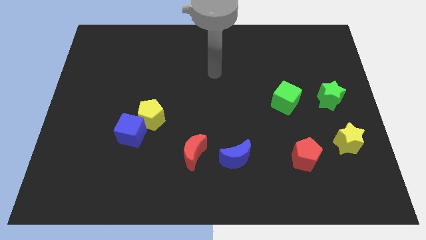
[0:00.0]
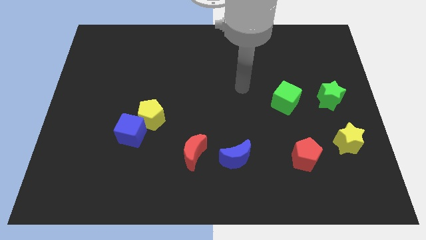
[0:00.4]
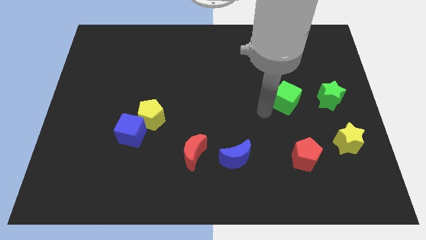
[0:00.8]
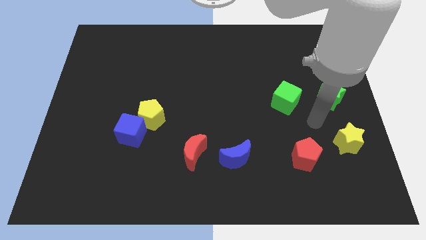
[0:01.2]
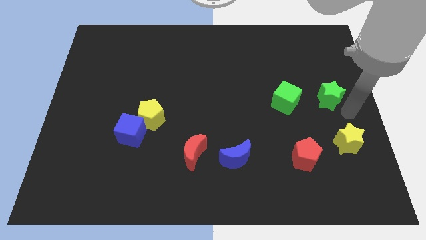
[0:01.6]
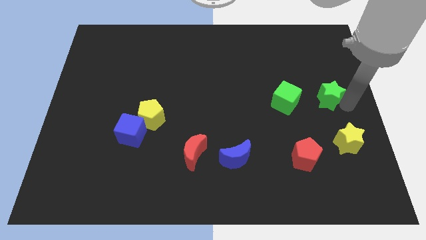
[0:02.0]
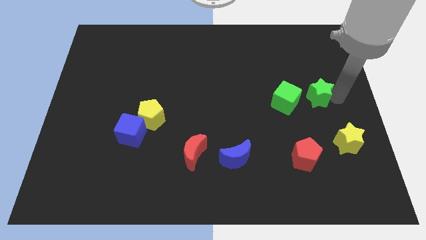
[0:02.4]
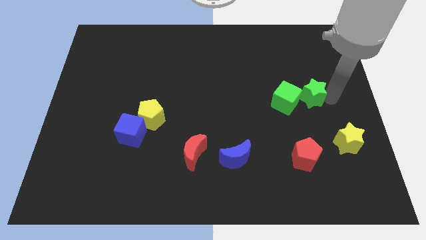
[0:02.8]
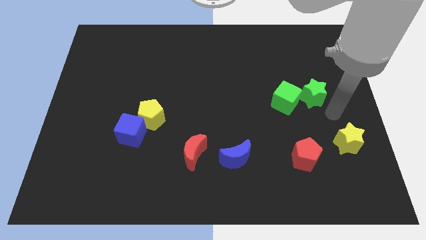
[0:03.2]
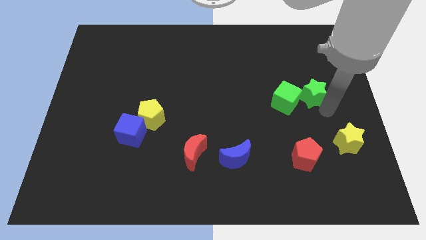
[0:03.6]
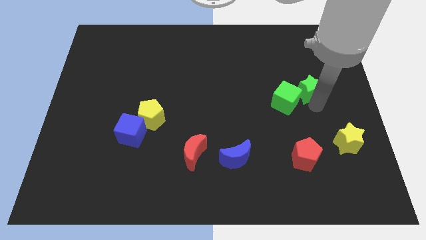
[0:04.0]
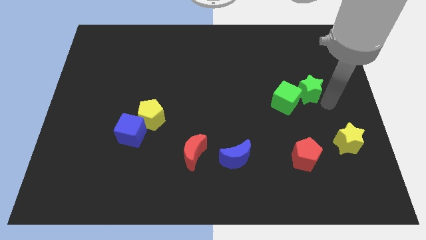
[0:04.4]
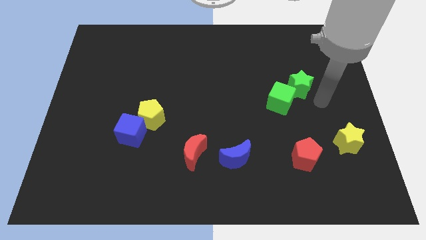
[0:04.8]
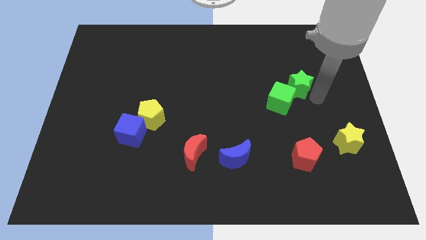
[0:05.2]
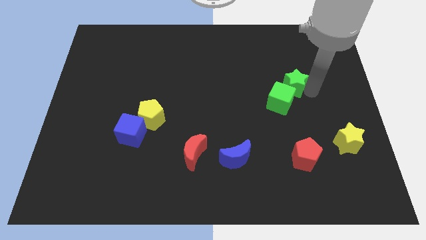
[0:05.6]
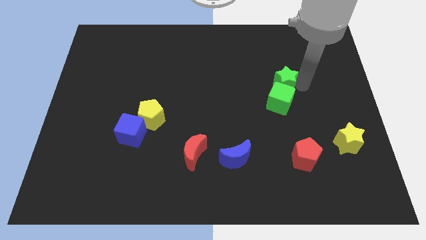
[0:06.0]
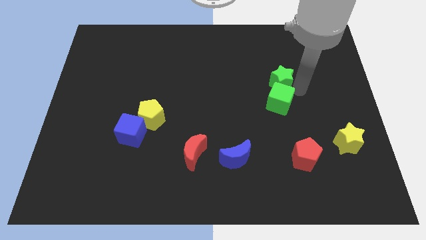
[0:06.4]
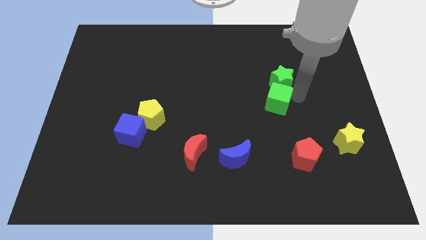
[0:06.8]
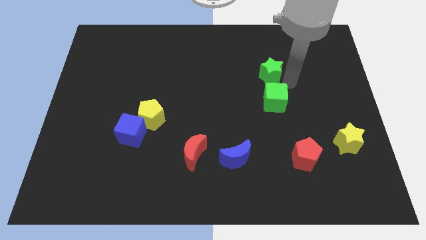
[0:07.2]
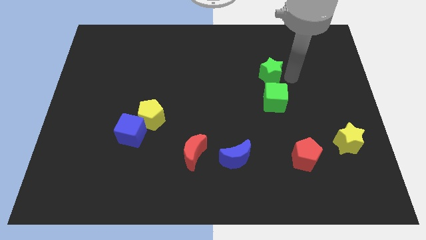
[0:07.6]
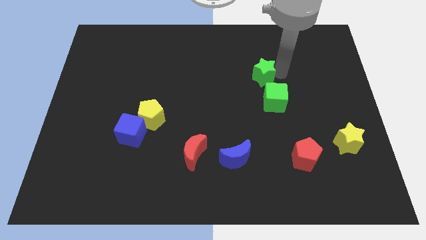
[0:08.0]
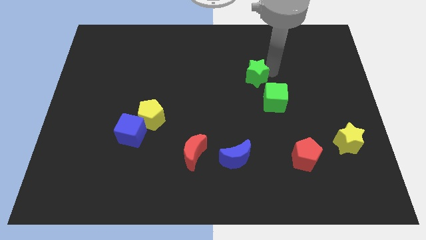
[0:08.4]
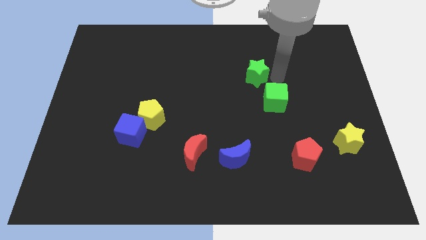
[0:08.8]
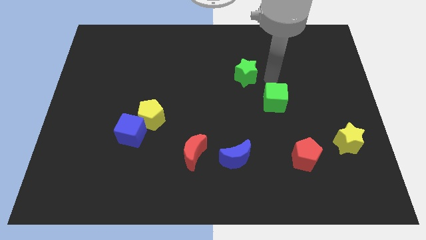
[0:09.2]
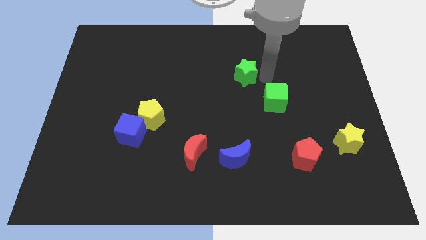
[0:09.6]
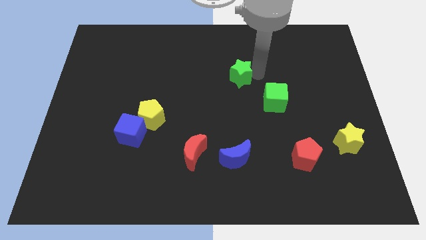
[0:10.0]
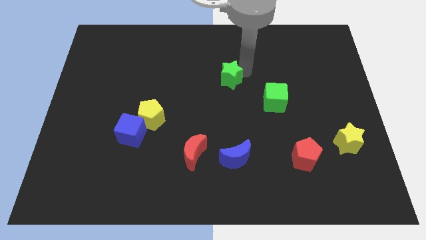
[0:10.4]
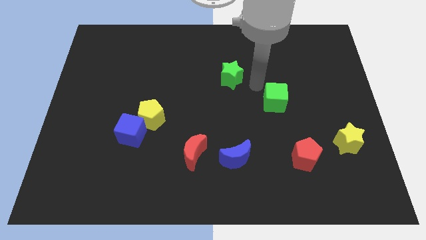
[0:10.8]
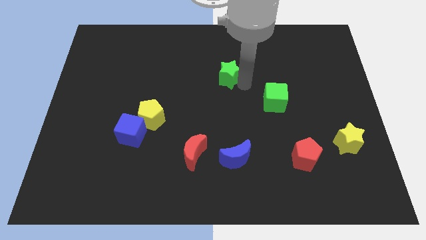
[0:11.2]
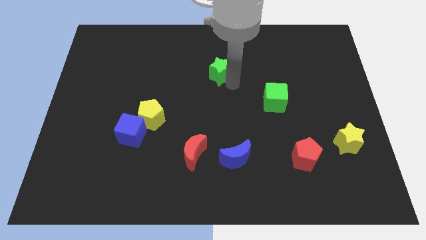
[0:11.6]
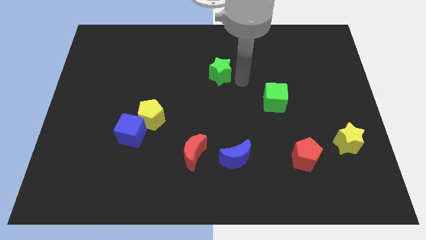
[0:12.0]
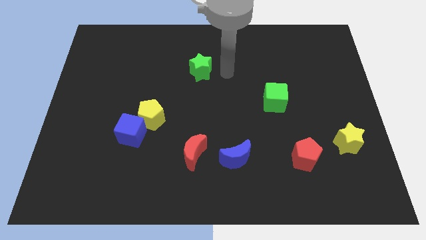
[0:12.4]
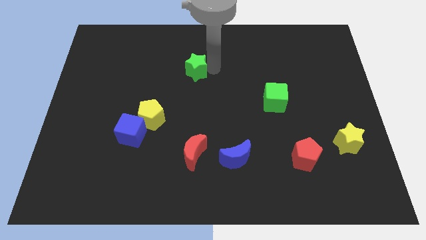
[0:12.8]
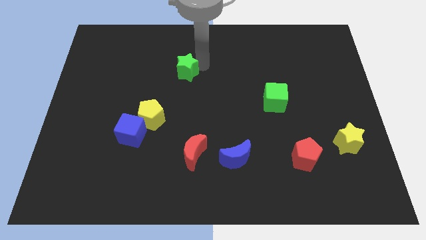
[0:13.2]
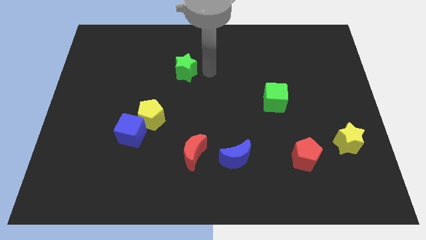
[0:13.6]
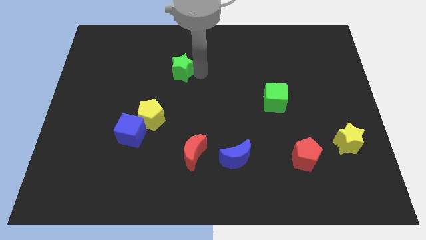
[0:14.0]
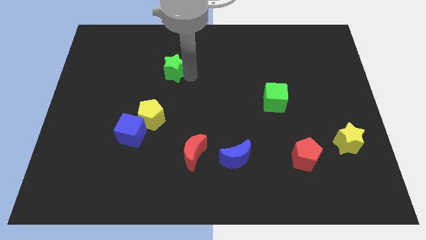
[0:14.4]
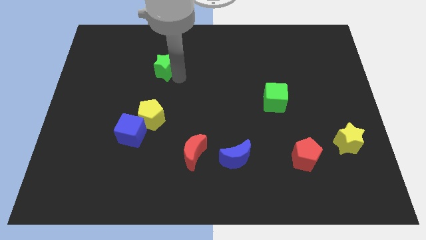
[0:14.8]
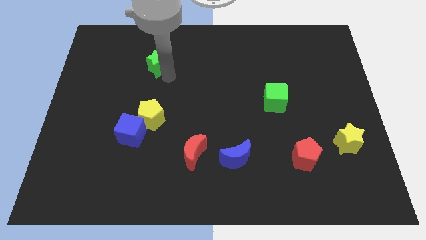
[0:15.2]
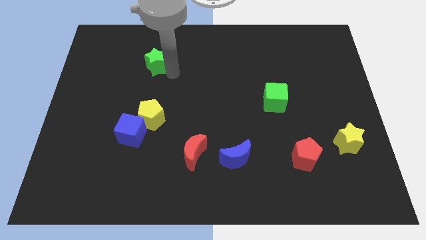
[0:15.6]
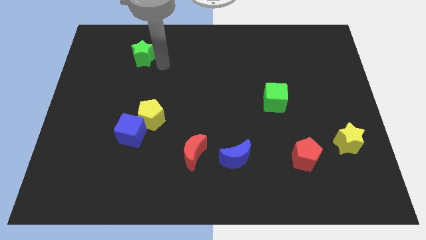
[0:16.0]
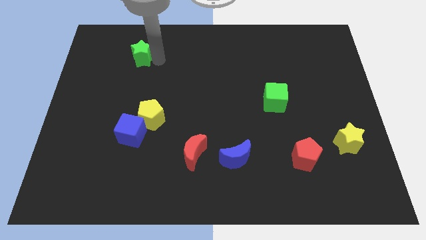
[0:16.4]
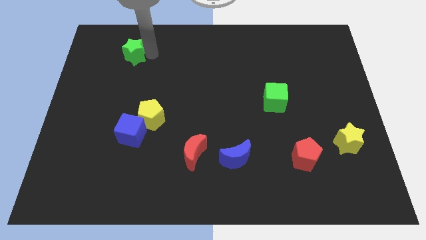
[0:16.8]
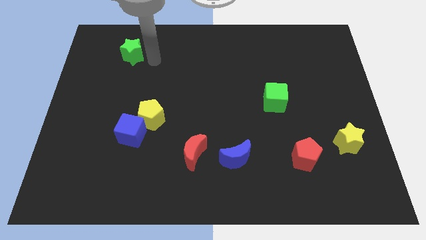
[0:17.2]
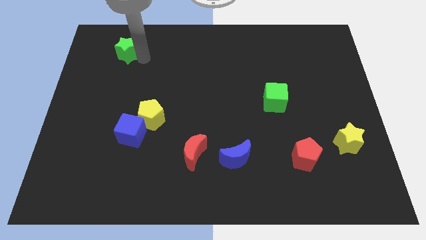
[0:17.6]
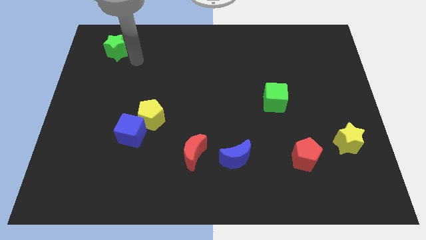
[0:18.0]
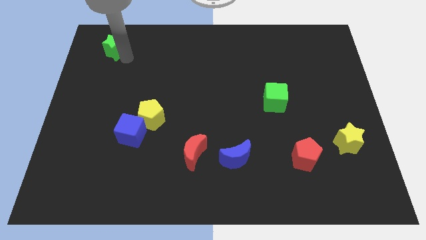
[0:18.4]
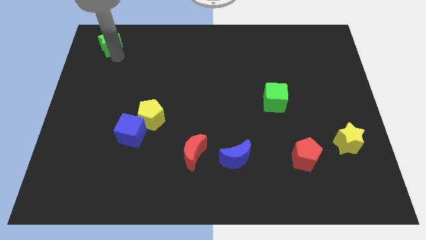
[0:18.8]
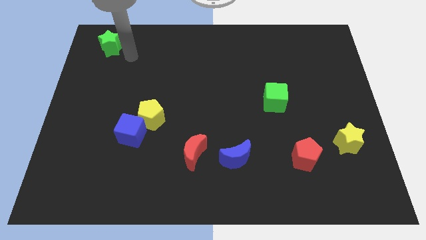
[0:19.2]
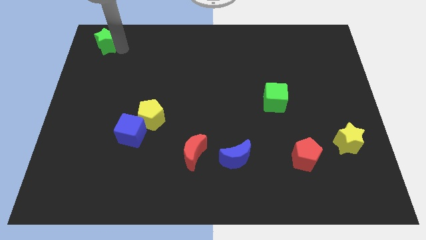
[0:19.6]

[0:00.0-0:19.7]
move the green star to the top left

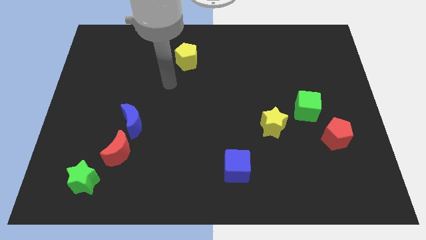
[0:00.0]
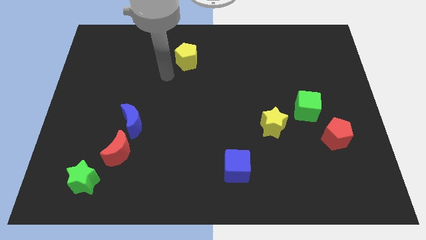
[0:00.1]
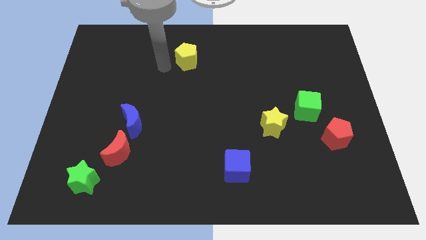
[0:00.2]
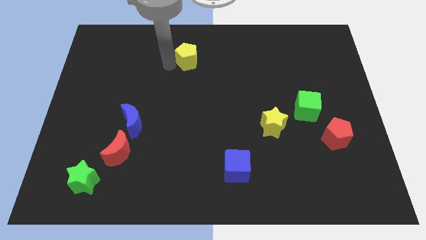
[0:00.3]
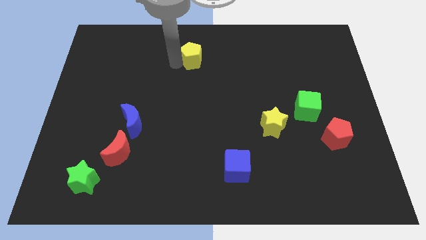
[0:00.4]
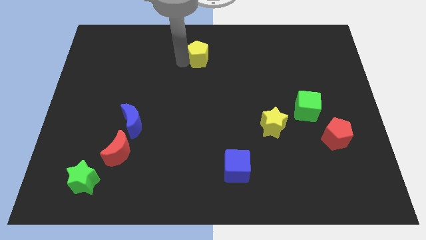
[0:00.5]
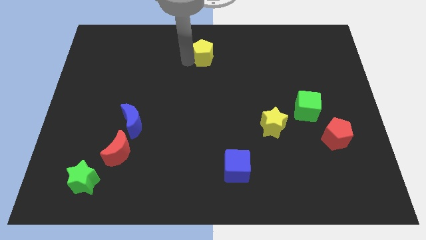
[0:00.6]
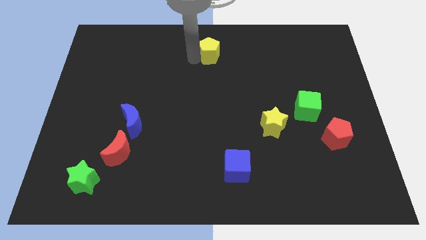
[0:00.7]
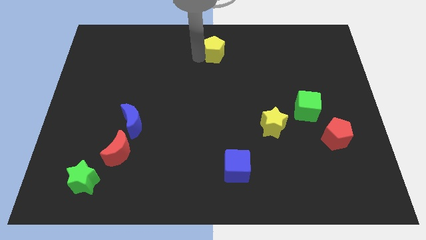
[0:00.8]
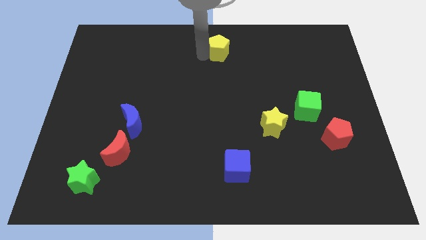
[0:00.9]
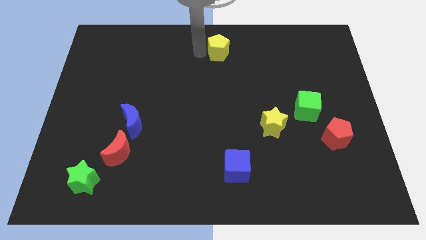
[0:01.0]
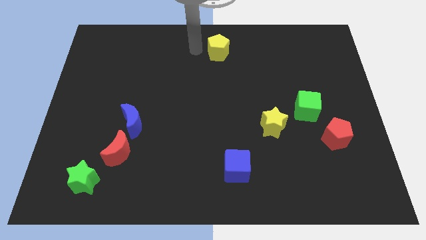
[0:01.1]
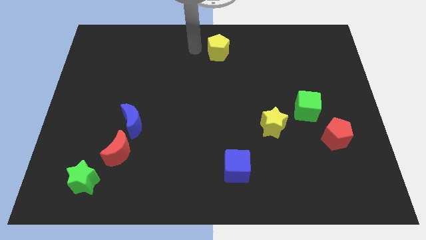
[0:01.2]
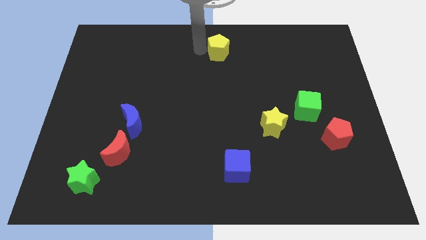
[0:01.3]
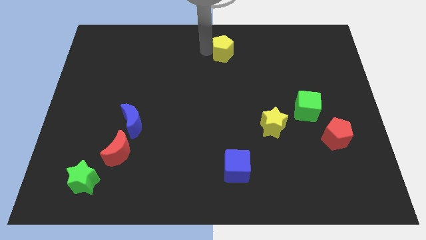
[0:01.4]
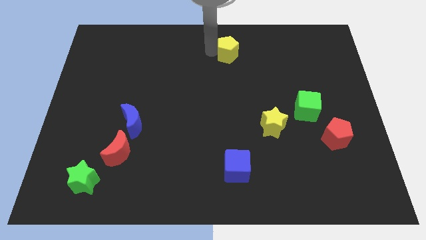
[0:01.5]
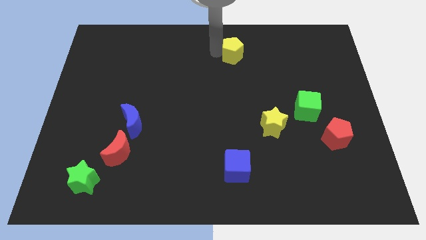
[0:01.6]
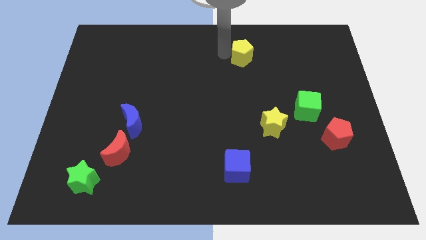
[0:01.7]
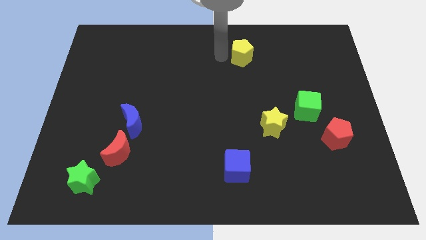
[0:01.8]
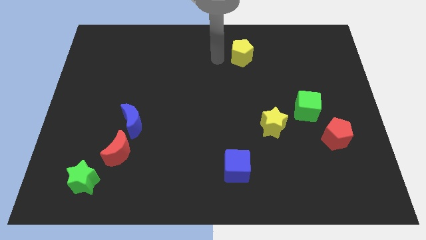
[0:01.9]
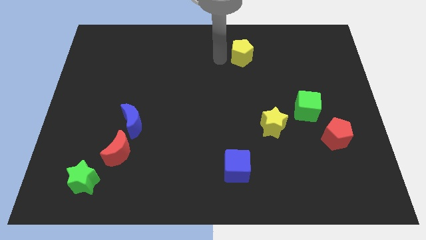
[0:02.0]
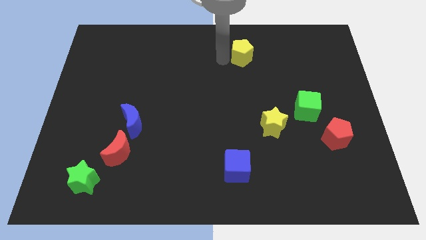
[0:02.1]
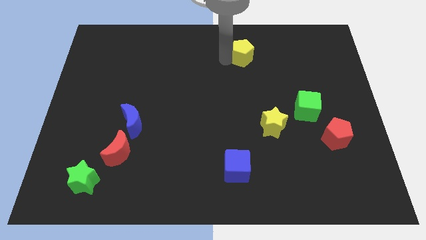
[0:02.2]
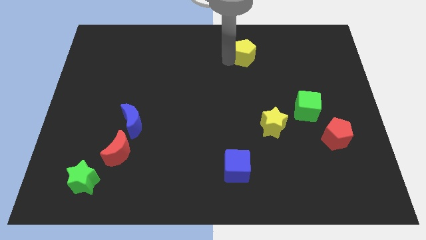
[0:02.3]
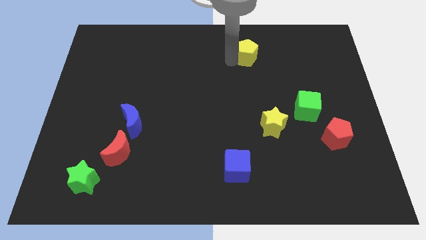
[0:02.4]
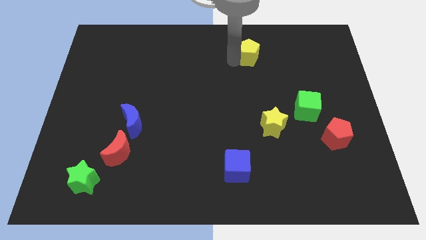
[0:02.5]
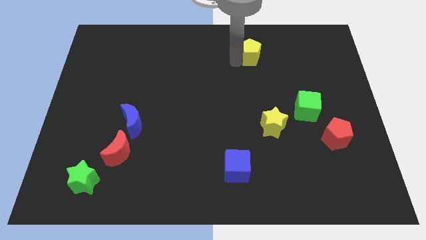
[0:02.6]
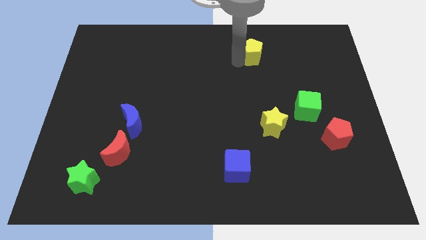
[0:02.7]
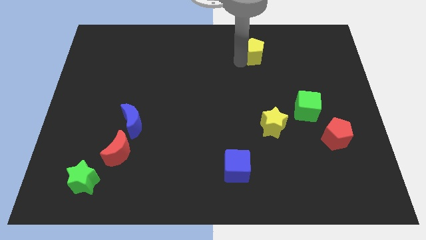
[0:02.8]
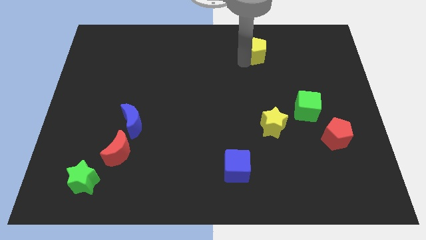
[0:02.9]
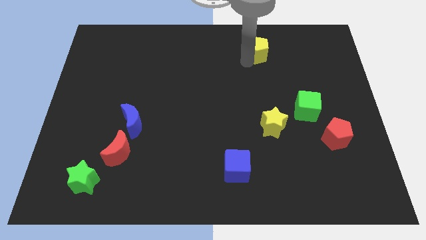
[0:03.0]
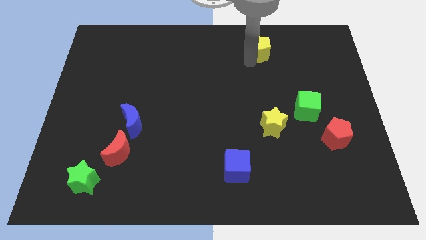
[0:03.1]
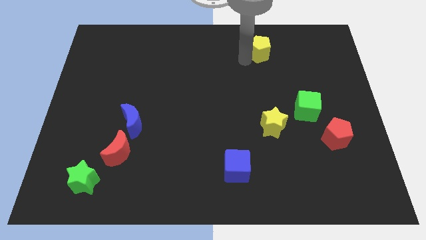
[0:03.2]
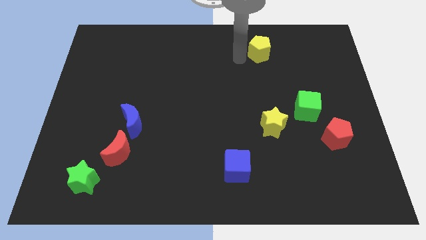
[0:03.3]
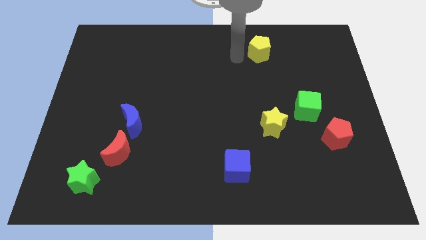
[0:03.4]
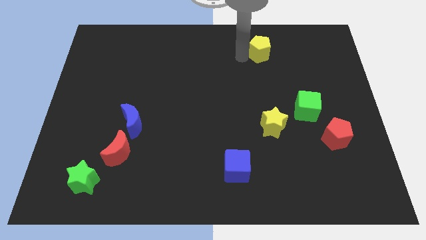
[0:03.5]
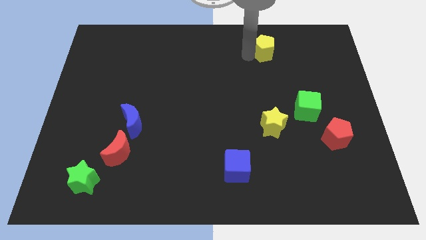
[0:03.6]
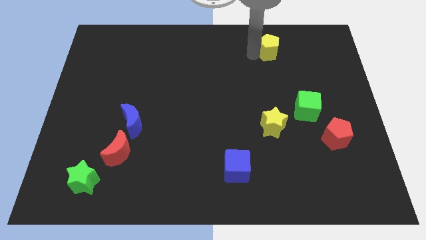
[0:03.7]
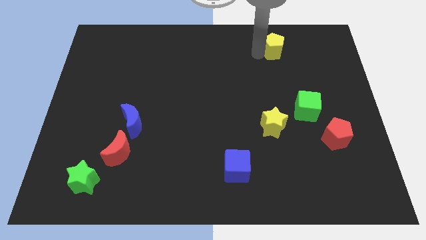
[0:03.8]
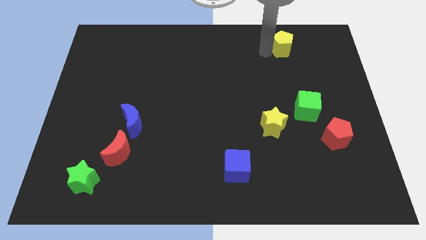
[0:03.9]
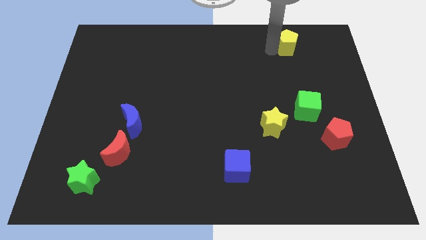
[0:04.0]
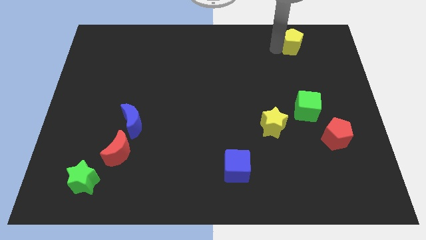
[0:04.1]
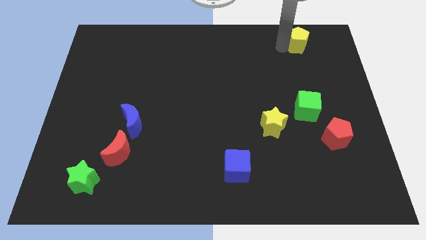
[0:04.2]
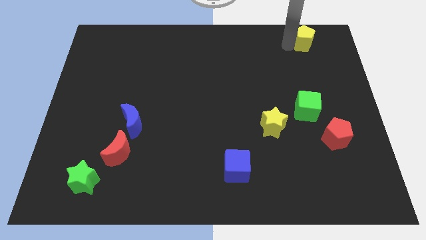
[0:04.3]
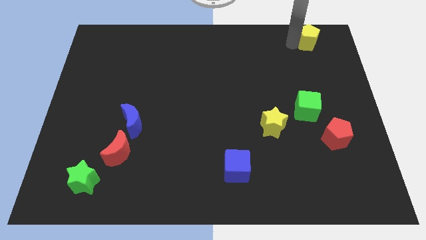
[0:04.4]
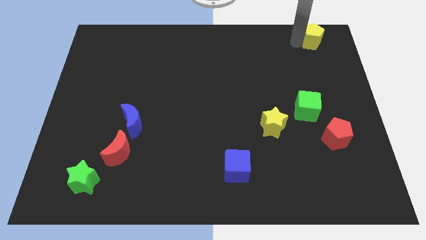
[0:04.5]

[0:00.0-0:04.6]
move the yellow pentagon to the top right
